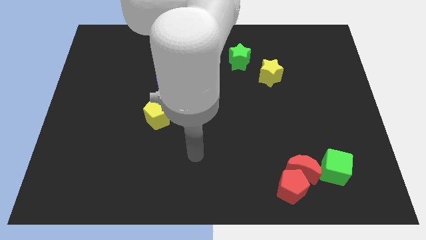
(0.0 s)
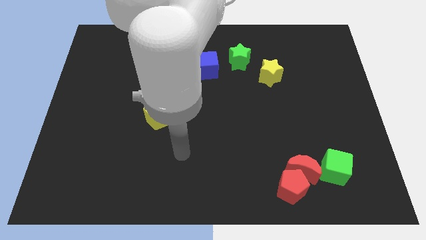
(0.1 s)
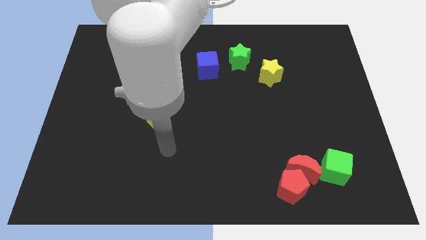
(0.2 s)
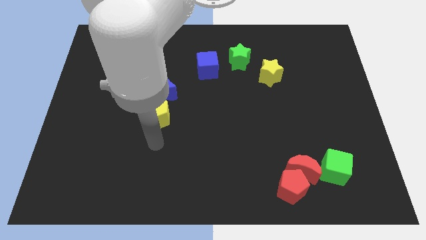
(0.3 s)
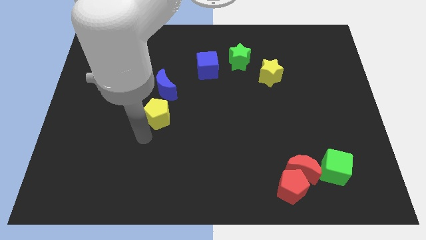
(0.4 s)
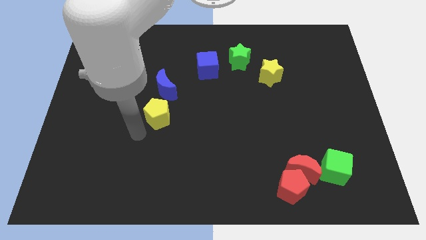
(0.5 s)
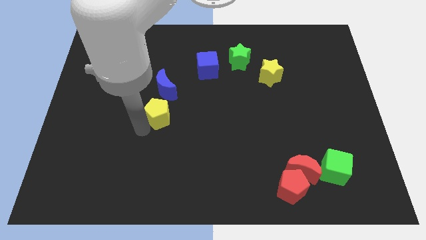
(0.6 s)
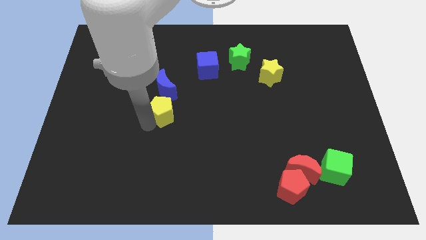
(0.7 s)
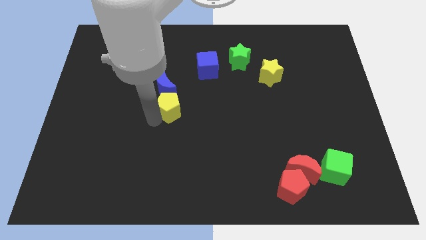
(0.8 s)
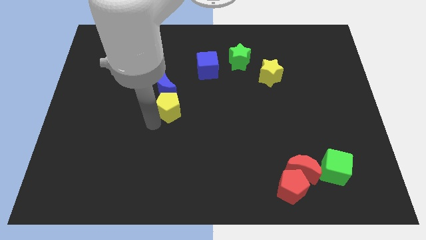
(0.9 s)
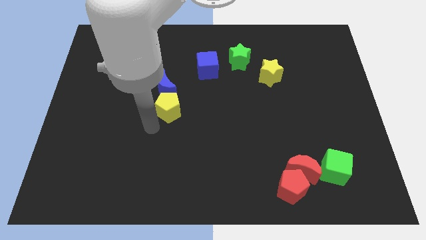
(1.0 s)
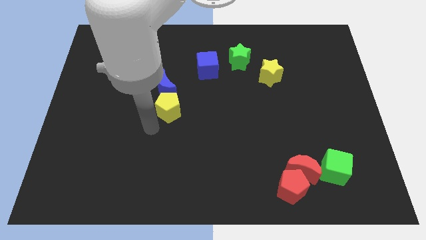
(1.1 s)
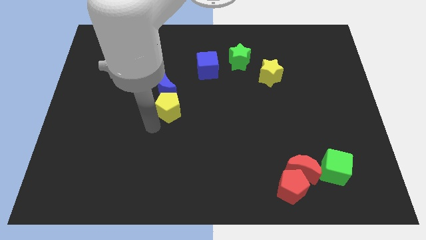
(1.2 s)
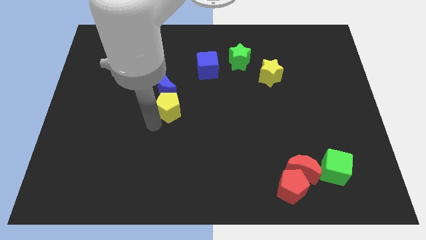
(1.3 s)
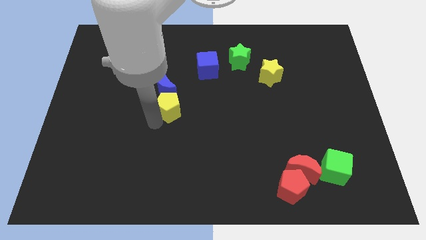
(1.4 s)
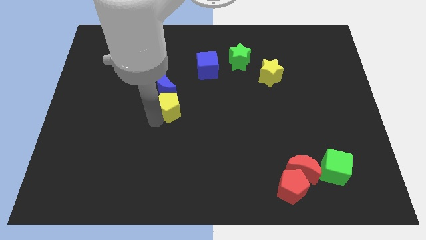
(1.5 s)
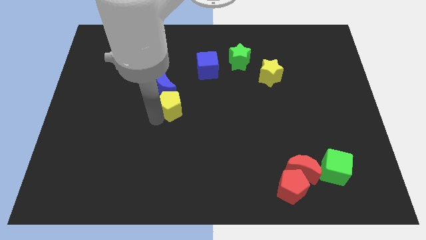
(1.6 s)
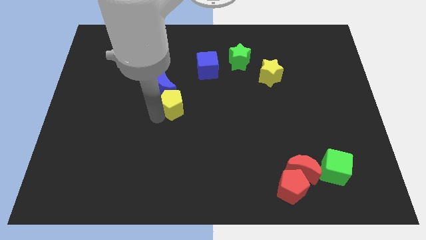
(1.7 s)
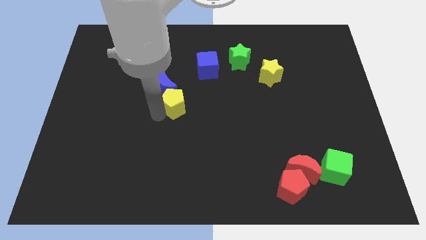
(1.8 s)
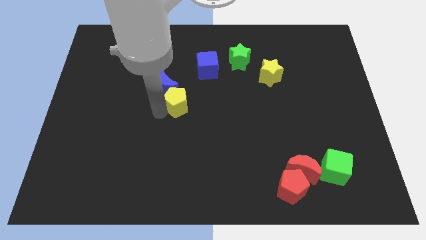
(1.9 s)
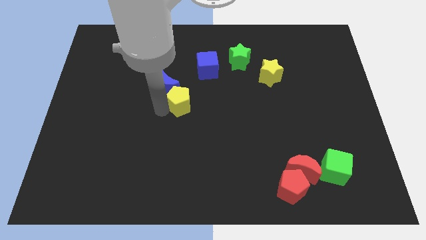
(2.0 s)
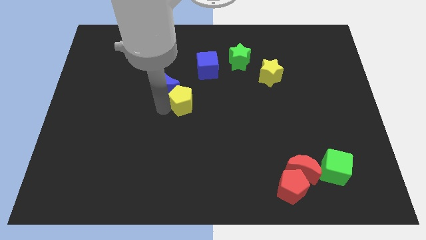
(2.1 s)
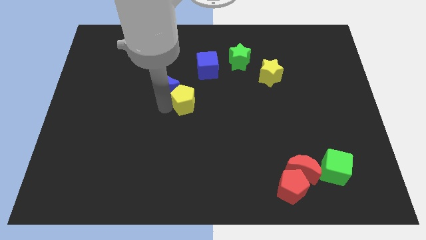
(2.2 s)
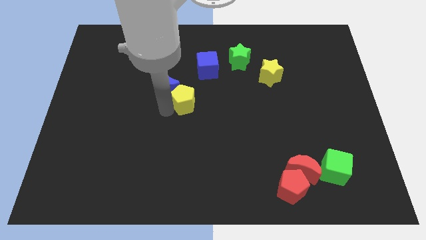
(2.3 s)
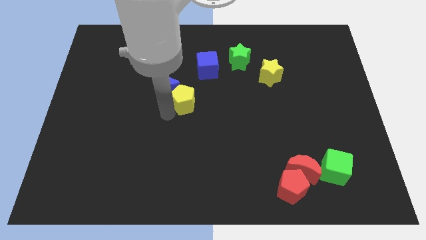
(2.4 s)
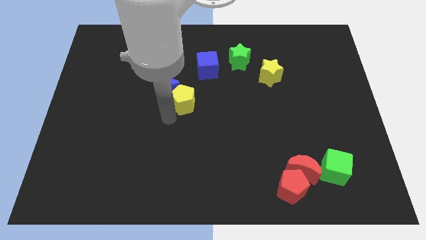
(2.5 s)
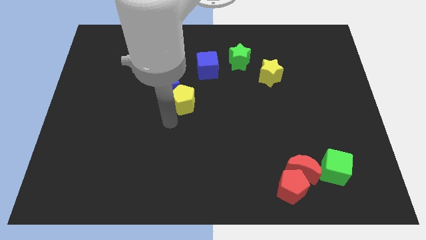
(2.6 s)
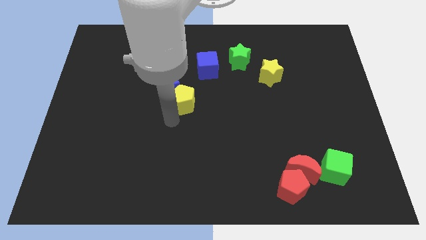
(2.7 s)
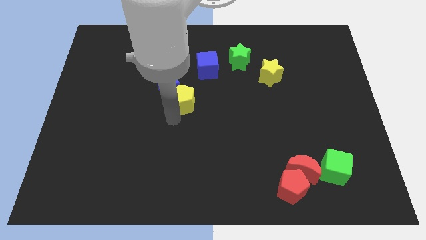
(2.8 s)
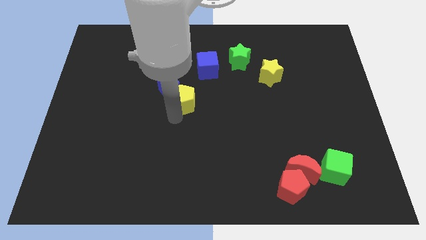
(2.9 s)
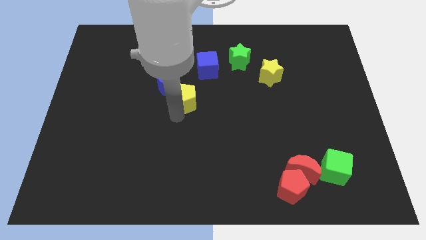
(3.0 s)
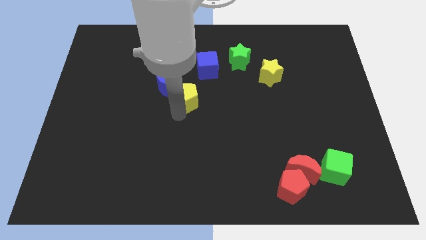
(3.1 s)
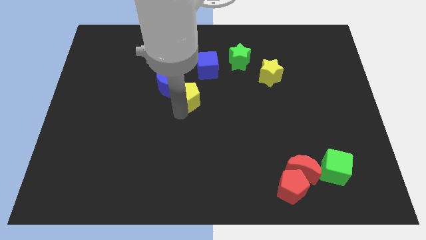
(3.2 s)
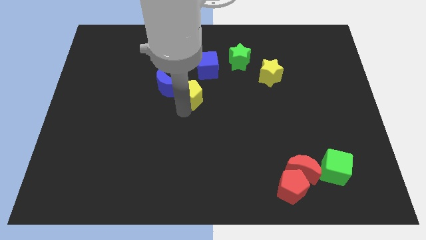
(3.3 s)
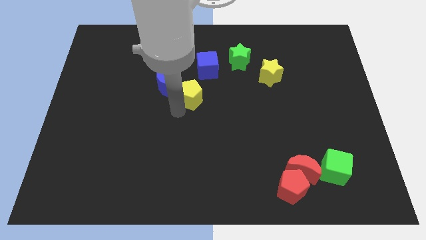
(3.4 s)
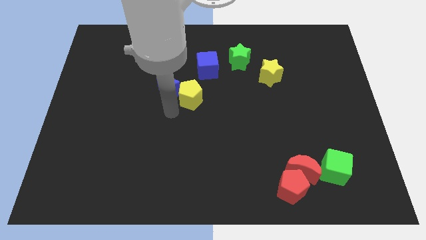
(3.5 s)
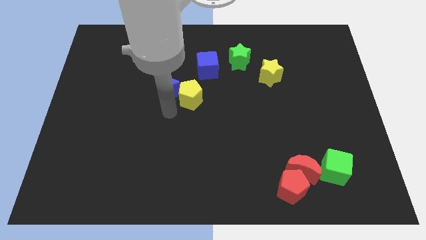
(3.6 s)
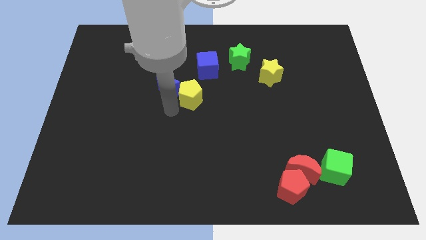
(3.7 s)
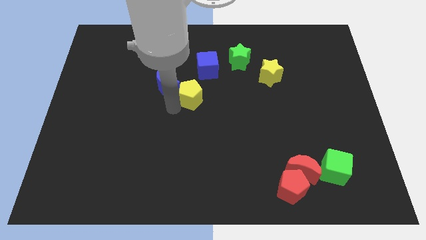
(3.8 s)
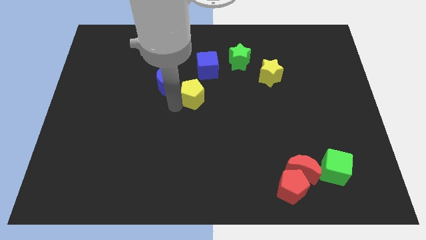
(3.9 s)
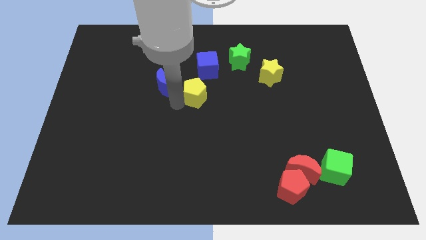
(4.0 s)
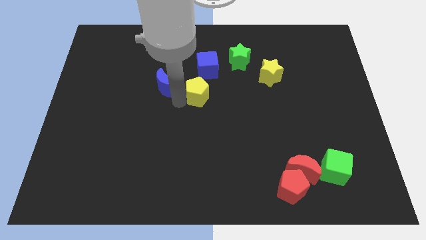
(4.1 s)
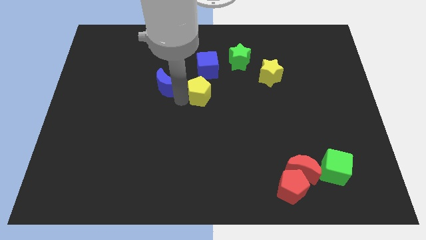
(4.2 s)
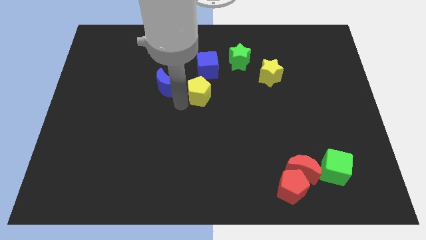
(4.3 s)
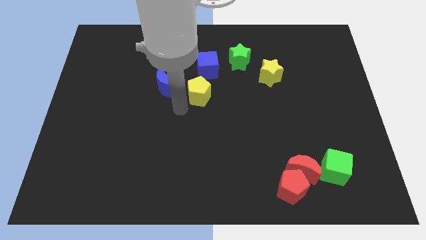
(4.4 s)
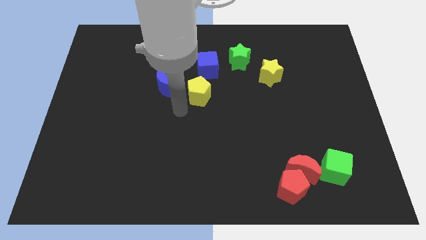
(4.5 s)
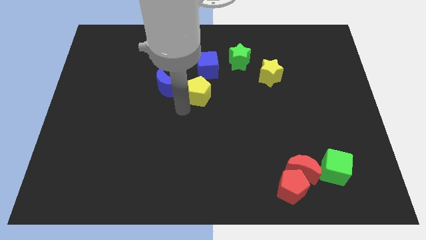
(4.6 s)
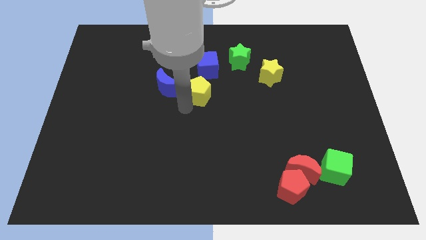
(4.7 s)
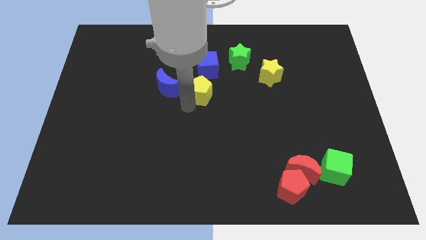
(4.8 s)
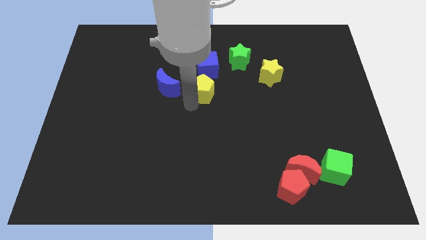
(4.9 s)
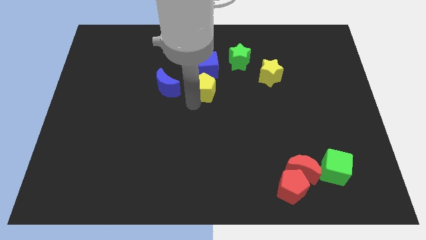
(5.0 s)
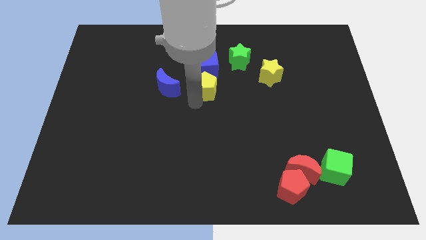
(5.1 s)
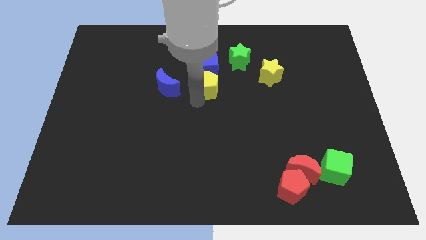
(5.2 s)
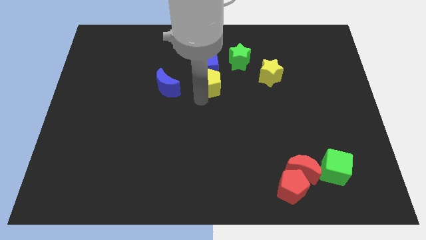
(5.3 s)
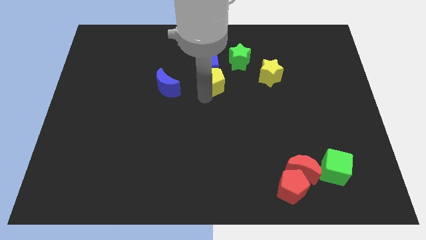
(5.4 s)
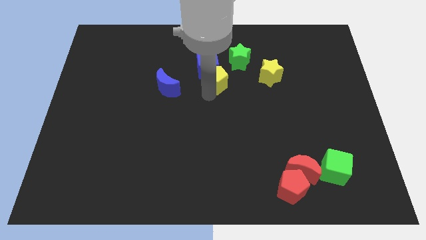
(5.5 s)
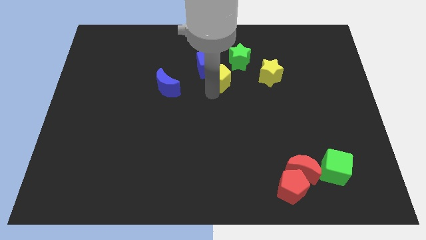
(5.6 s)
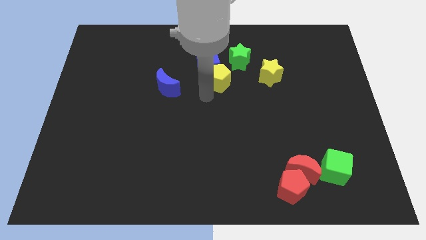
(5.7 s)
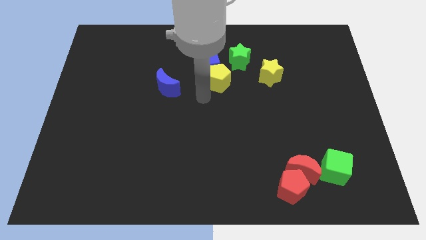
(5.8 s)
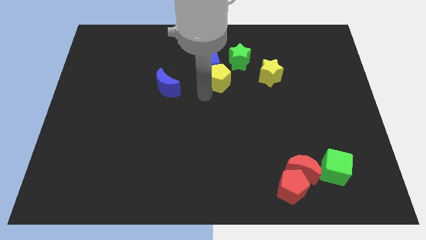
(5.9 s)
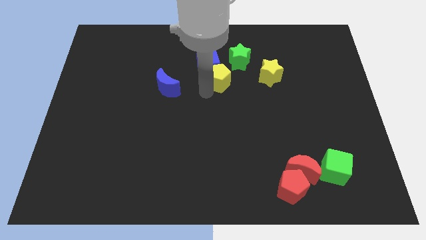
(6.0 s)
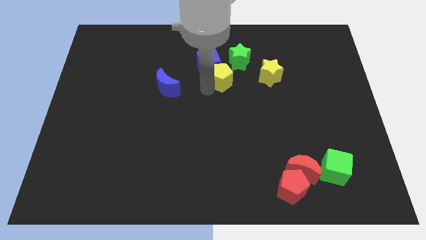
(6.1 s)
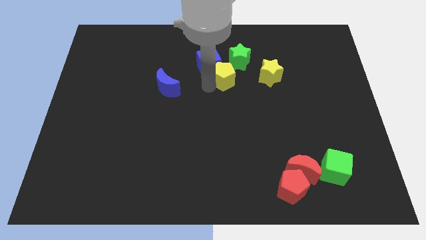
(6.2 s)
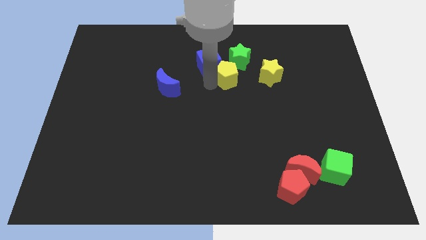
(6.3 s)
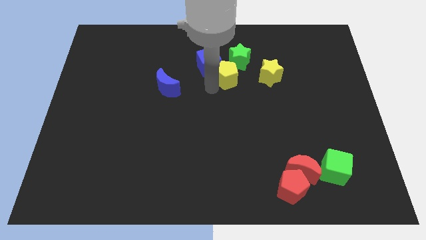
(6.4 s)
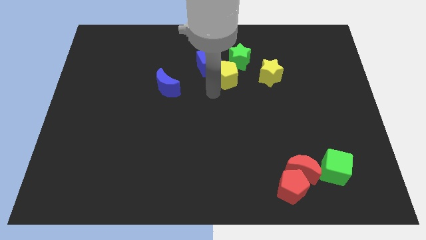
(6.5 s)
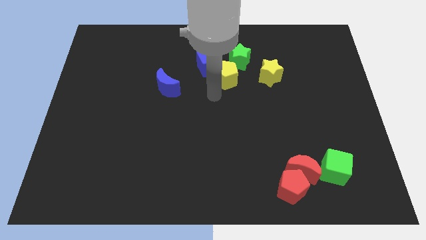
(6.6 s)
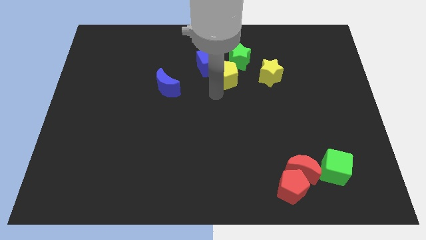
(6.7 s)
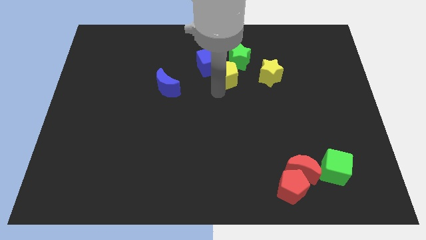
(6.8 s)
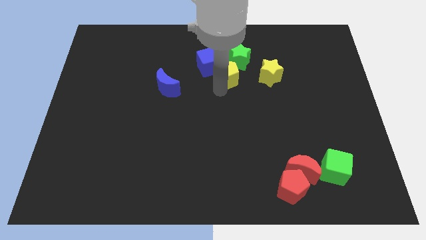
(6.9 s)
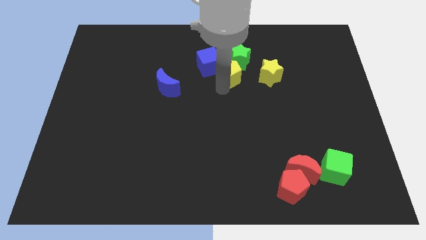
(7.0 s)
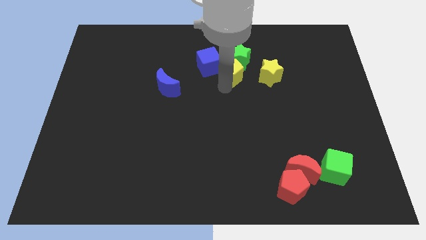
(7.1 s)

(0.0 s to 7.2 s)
slide the yellow pentagon next to the green star
